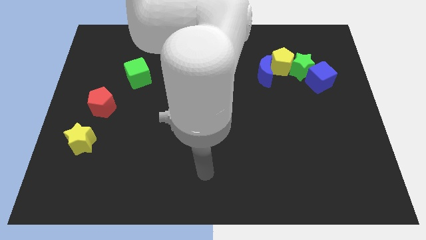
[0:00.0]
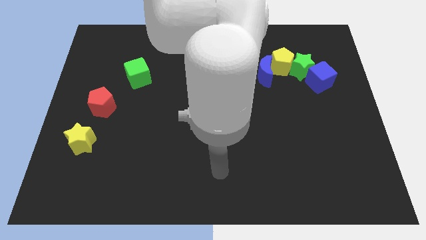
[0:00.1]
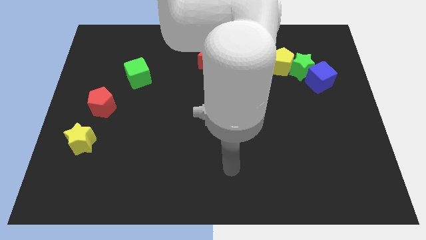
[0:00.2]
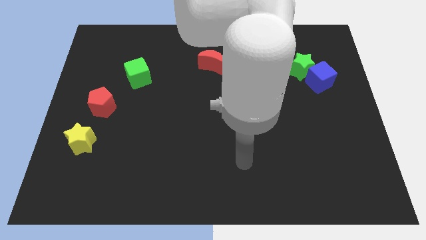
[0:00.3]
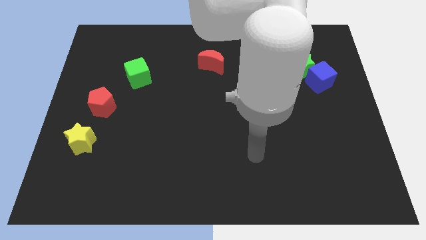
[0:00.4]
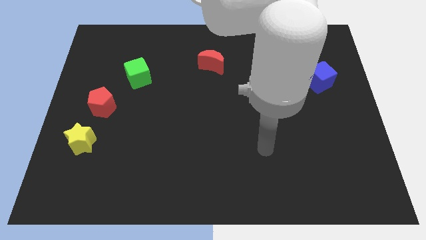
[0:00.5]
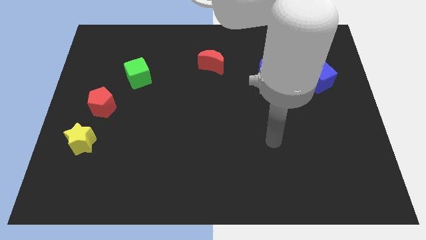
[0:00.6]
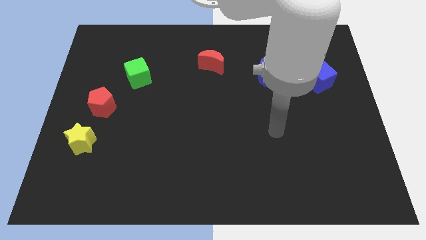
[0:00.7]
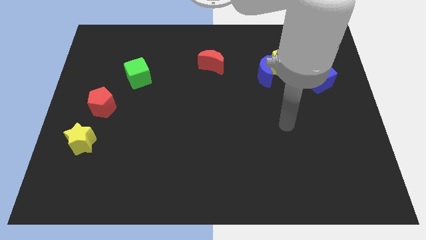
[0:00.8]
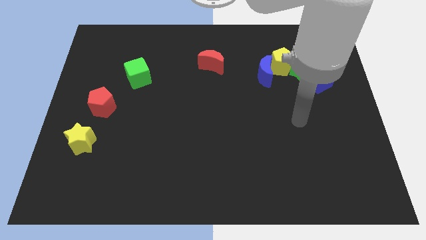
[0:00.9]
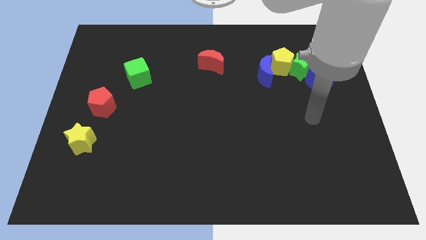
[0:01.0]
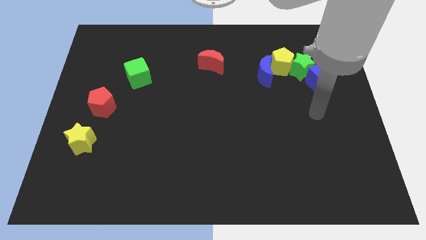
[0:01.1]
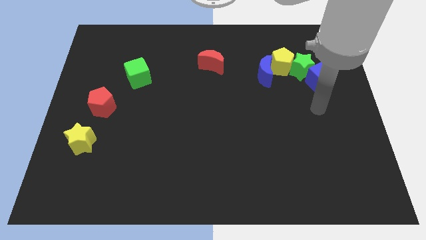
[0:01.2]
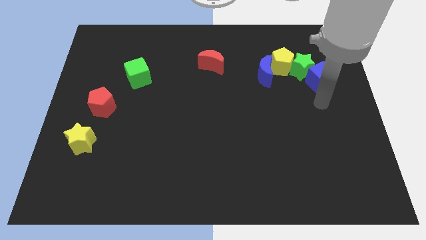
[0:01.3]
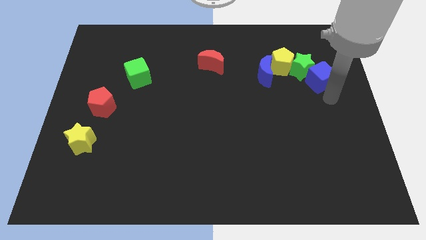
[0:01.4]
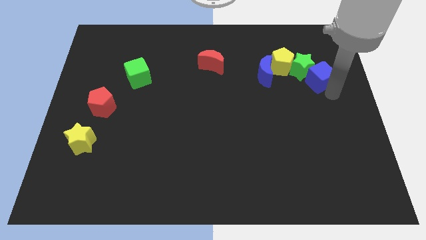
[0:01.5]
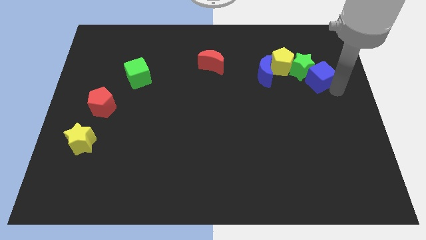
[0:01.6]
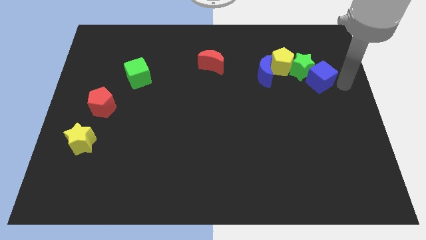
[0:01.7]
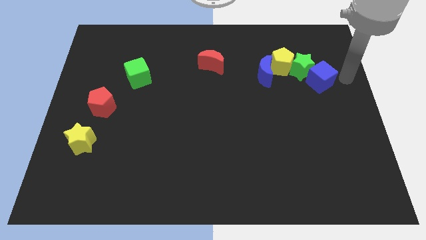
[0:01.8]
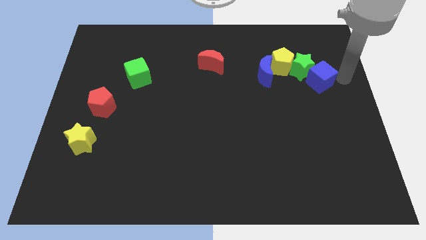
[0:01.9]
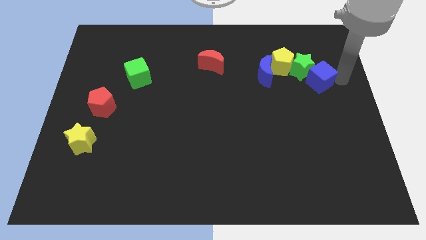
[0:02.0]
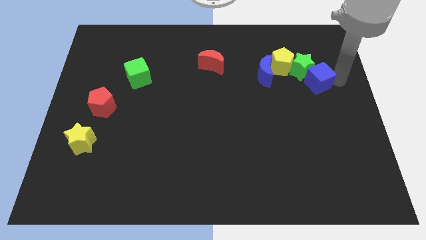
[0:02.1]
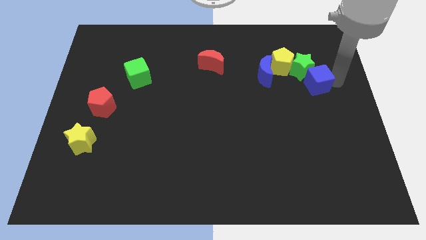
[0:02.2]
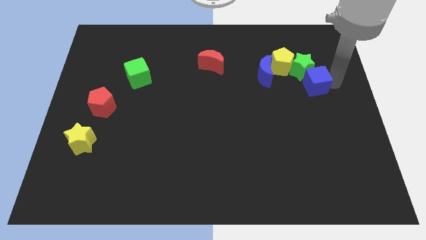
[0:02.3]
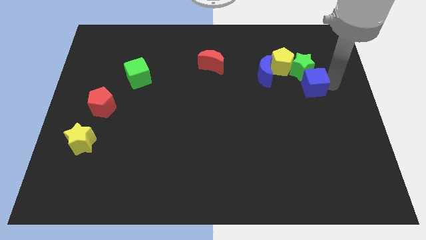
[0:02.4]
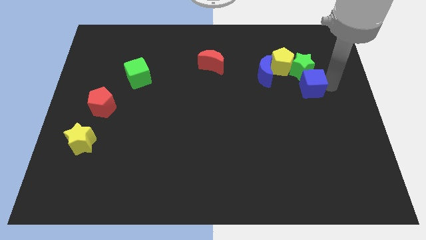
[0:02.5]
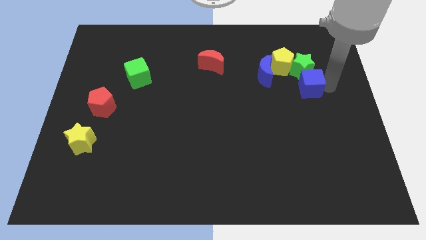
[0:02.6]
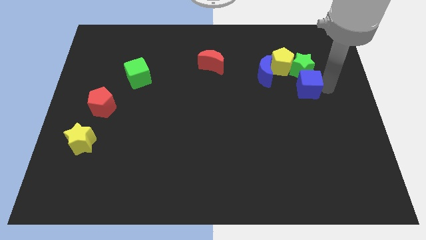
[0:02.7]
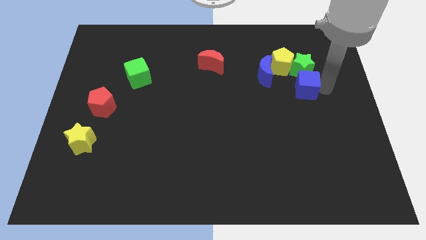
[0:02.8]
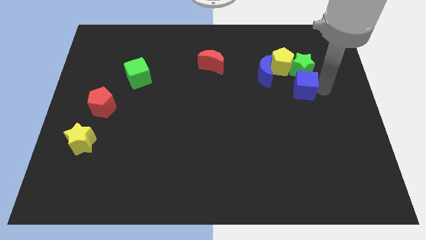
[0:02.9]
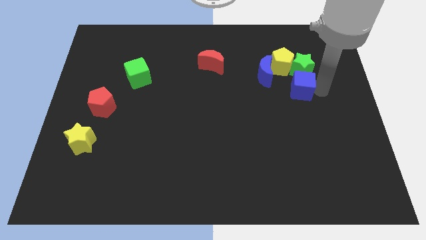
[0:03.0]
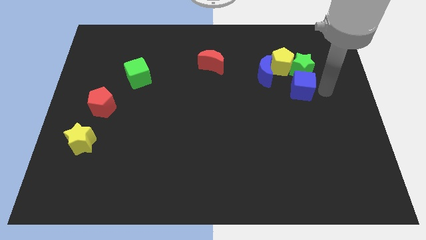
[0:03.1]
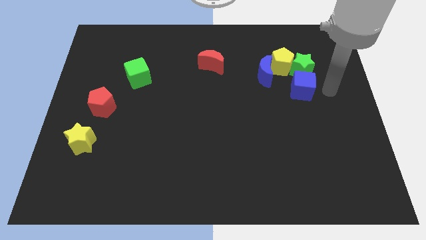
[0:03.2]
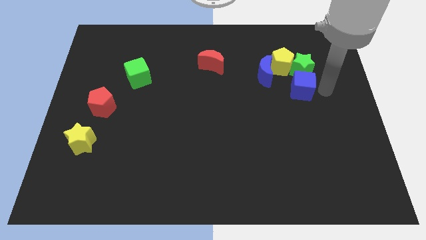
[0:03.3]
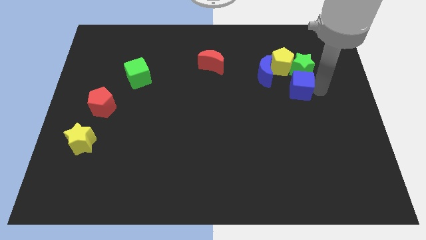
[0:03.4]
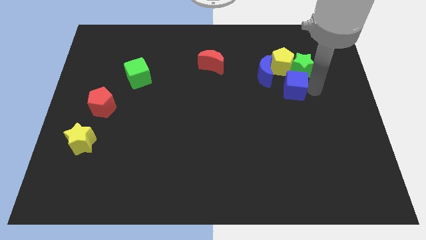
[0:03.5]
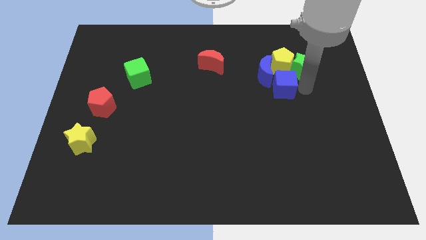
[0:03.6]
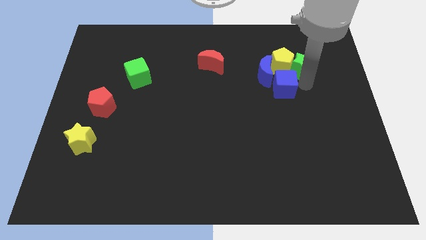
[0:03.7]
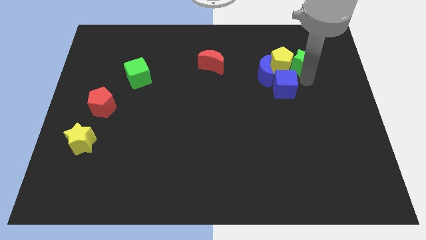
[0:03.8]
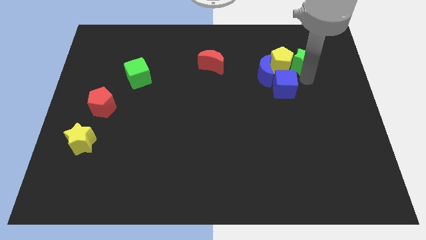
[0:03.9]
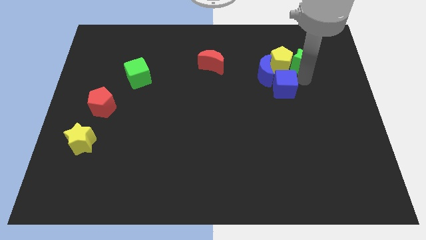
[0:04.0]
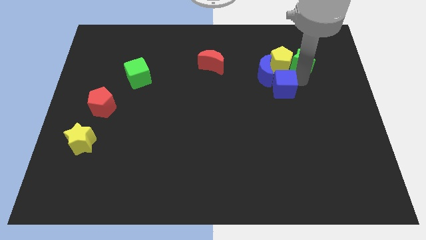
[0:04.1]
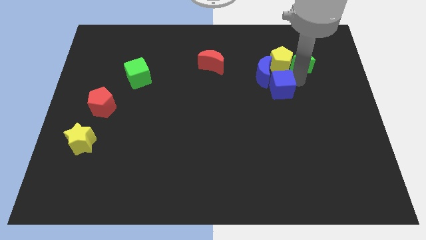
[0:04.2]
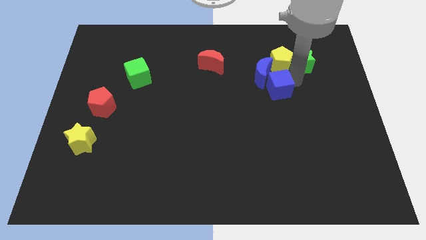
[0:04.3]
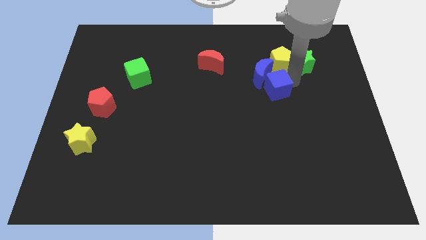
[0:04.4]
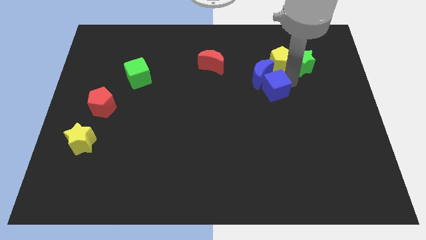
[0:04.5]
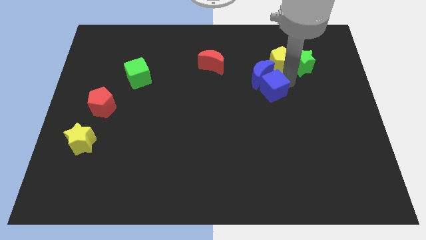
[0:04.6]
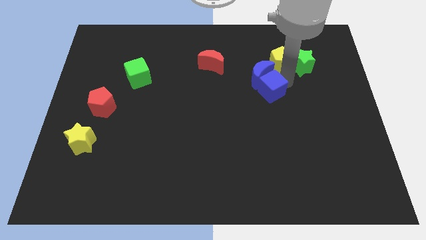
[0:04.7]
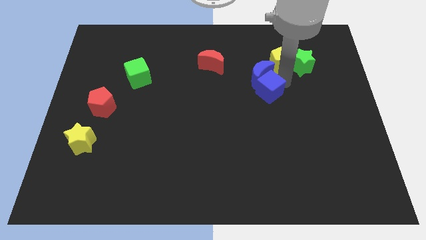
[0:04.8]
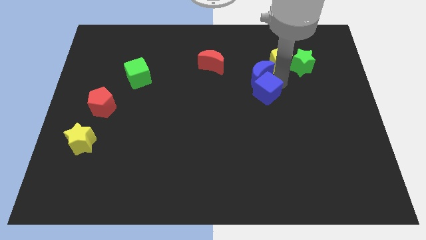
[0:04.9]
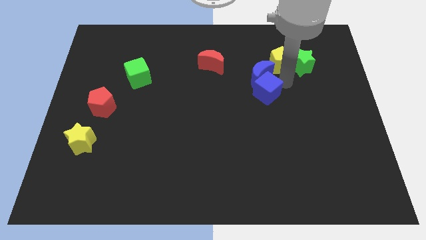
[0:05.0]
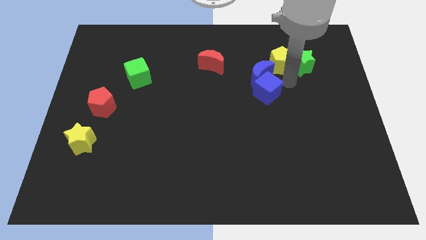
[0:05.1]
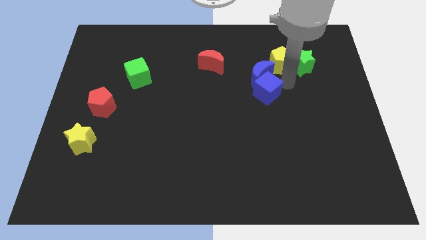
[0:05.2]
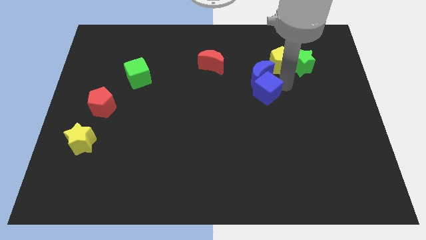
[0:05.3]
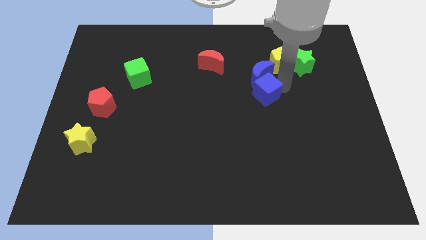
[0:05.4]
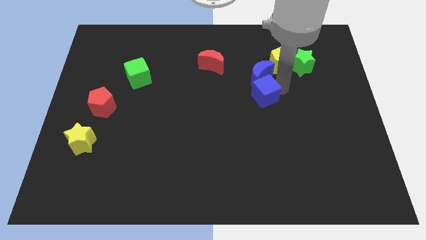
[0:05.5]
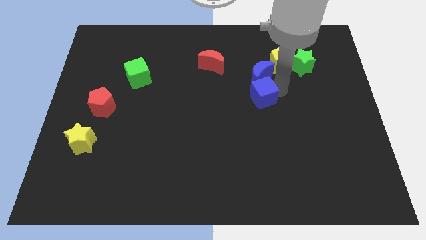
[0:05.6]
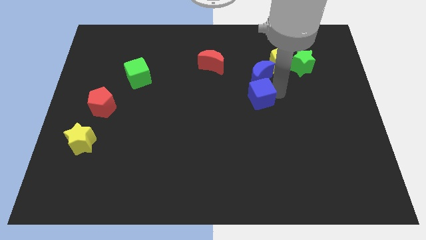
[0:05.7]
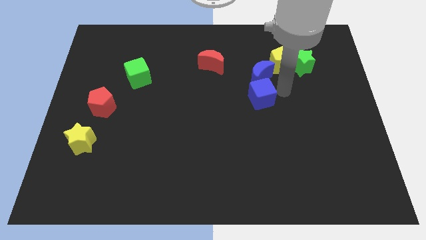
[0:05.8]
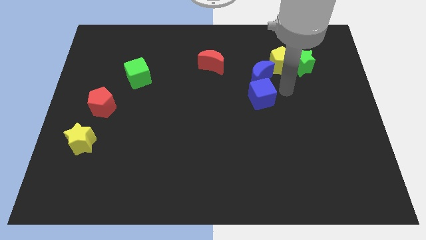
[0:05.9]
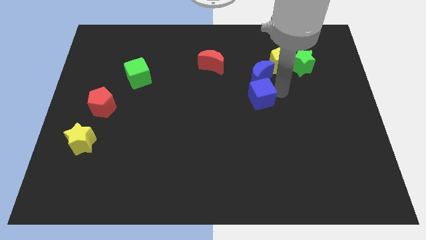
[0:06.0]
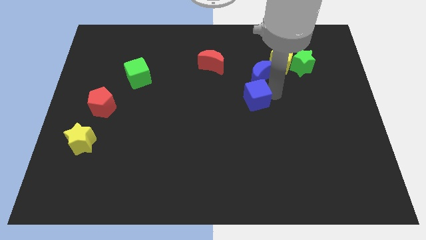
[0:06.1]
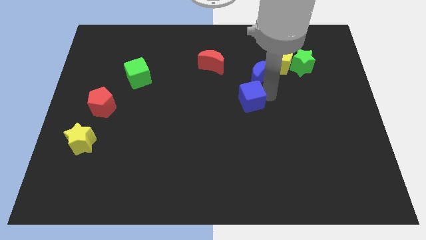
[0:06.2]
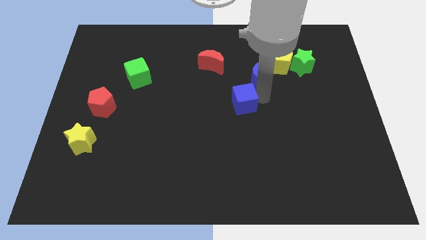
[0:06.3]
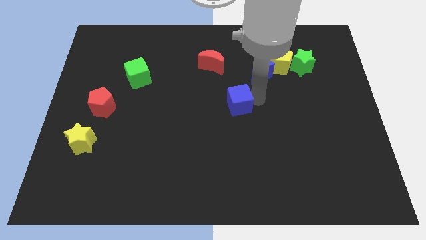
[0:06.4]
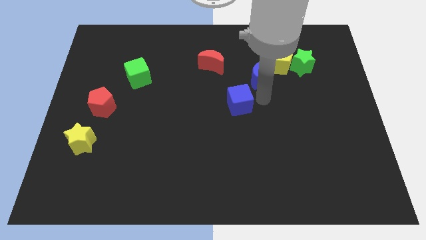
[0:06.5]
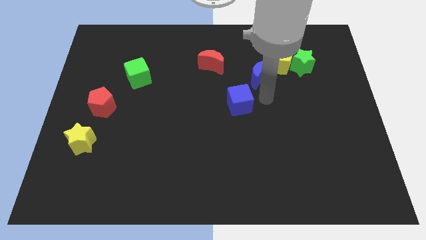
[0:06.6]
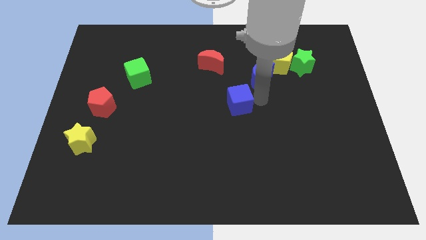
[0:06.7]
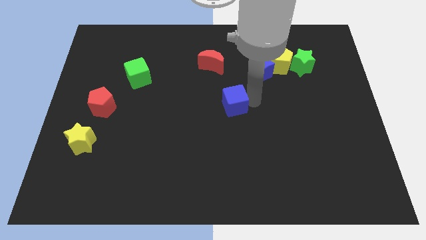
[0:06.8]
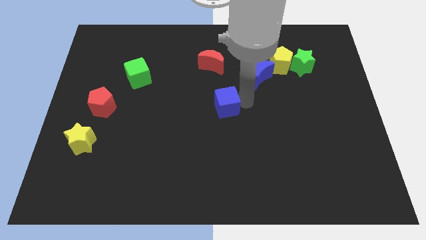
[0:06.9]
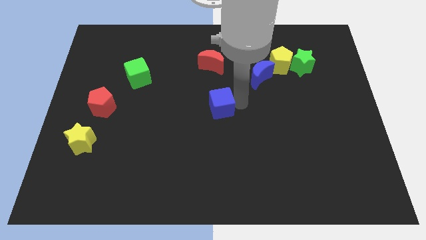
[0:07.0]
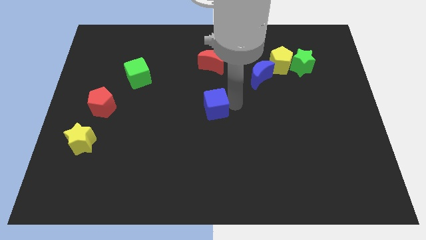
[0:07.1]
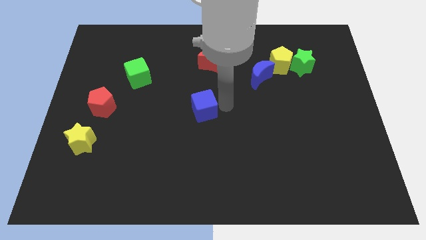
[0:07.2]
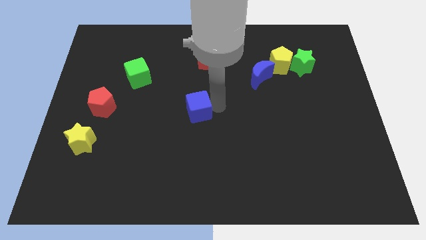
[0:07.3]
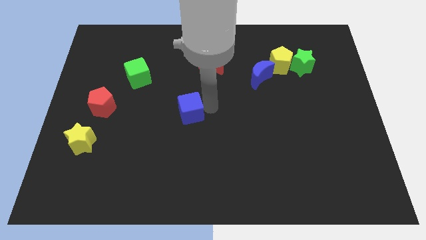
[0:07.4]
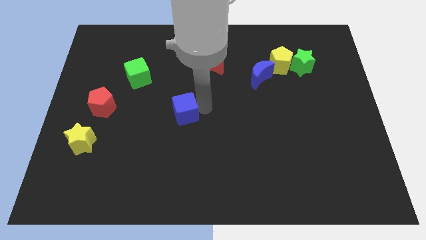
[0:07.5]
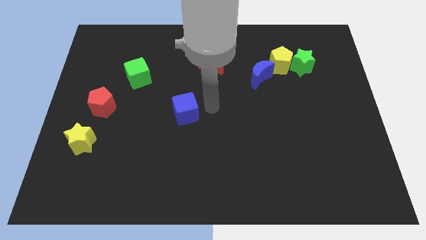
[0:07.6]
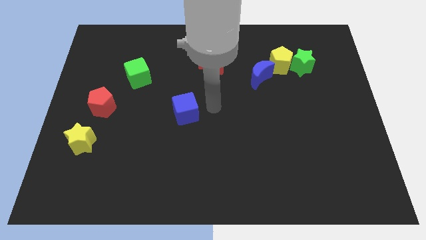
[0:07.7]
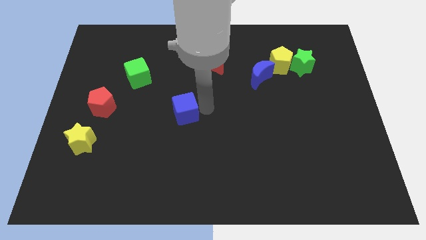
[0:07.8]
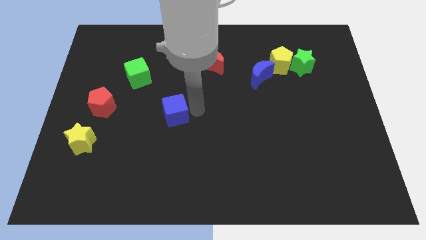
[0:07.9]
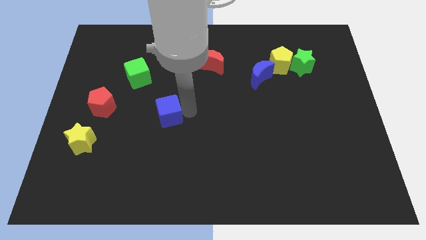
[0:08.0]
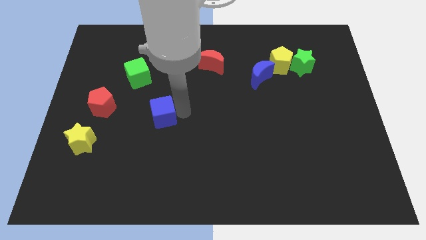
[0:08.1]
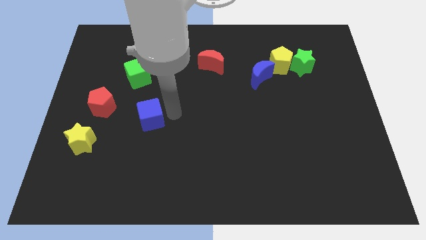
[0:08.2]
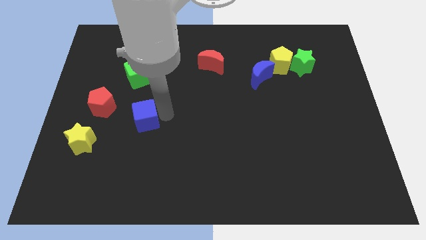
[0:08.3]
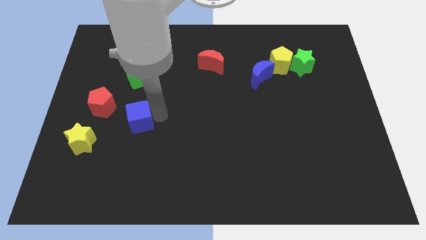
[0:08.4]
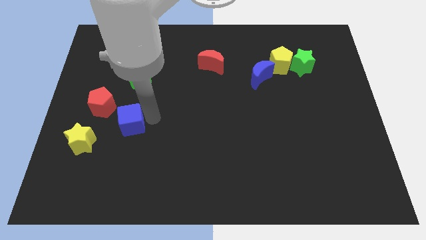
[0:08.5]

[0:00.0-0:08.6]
move the blue cube to the top right of the yellow star
